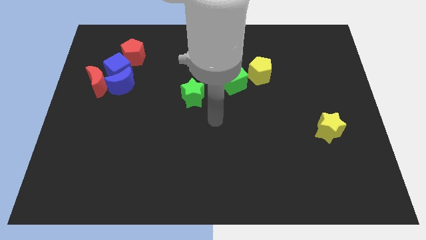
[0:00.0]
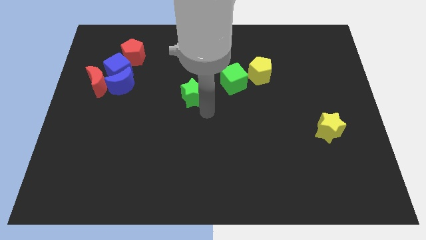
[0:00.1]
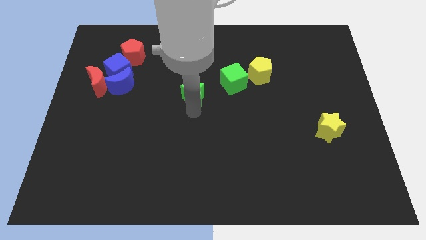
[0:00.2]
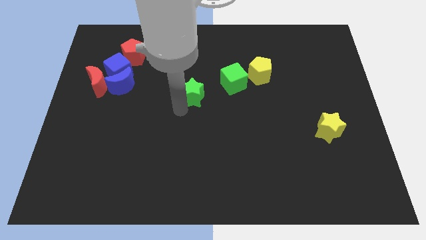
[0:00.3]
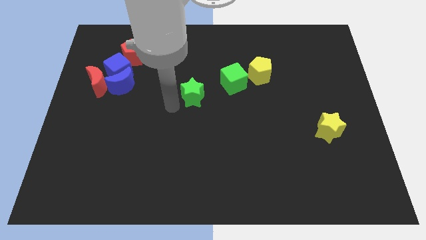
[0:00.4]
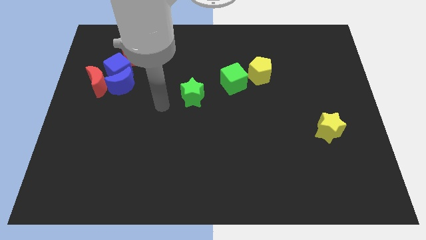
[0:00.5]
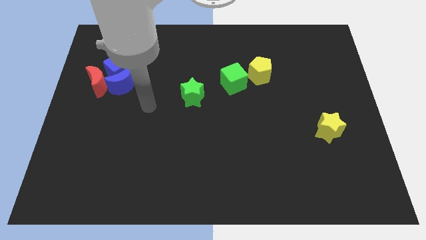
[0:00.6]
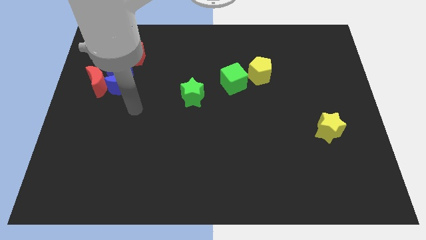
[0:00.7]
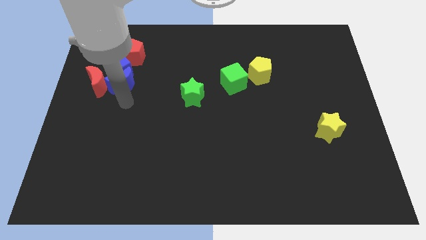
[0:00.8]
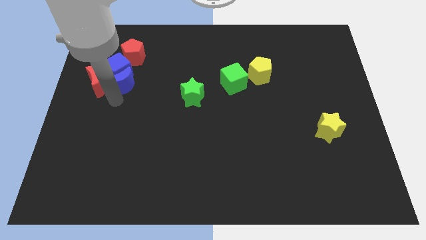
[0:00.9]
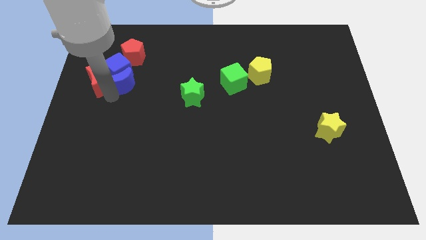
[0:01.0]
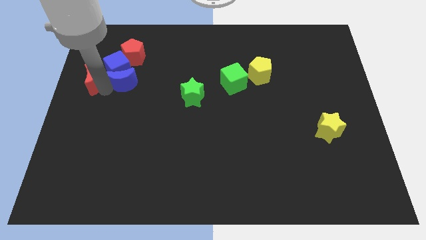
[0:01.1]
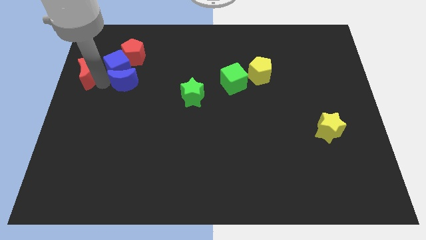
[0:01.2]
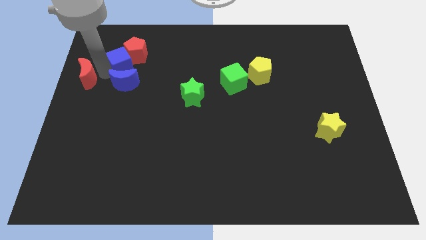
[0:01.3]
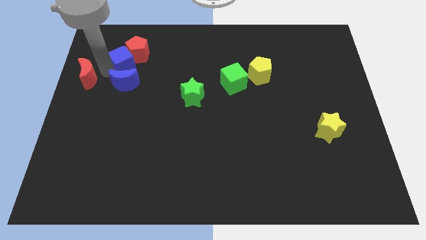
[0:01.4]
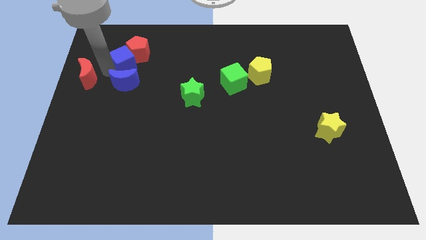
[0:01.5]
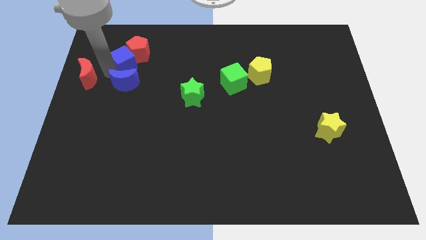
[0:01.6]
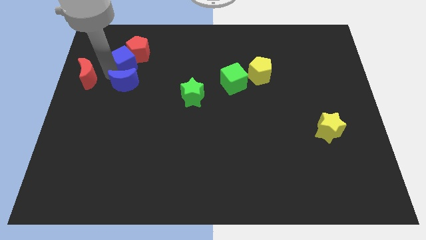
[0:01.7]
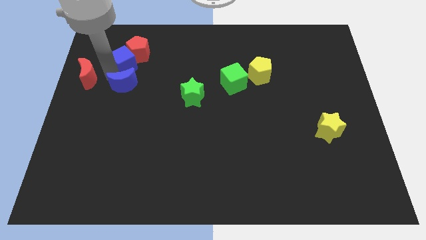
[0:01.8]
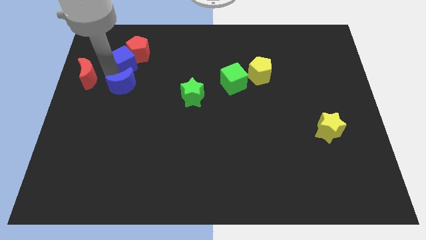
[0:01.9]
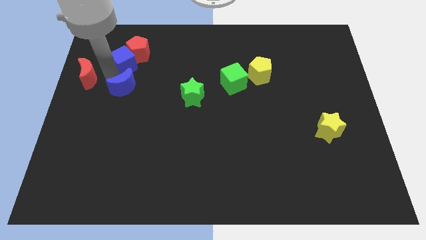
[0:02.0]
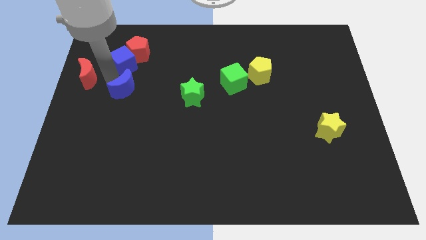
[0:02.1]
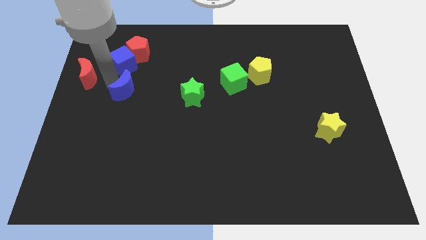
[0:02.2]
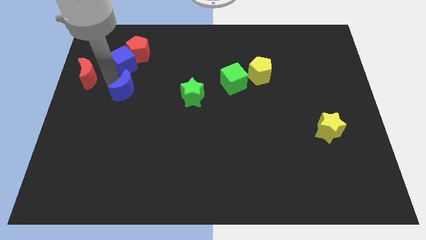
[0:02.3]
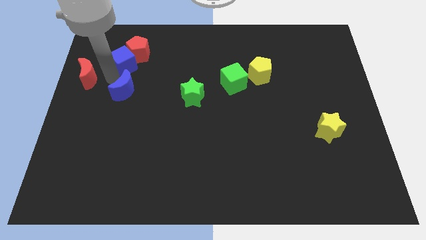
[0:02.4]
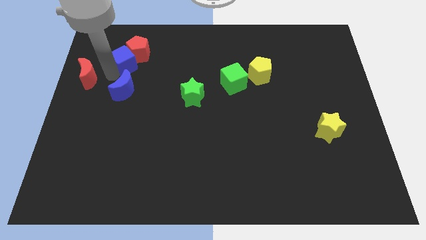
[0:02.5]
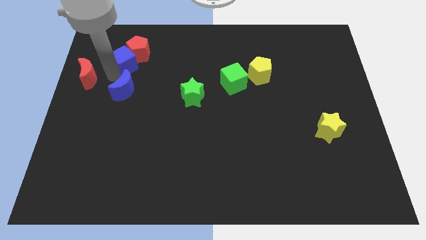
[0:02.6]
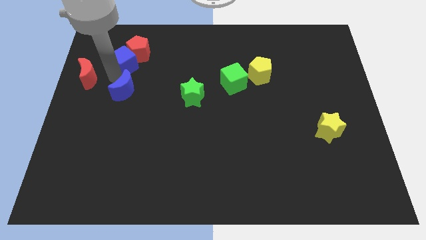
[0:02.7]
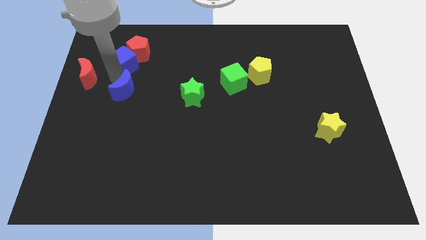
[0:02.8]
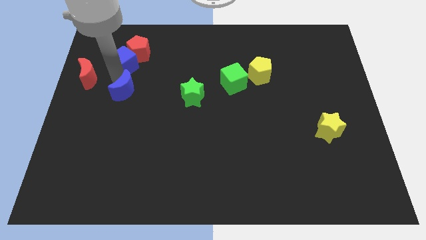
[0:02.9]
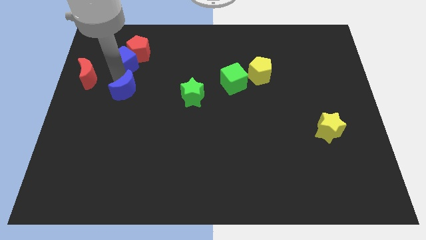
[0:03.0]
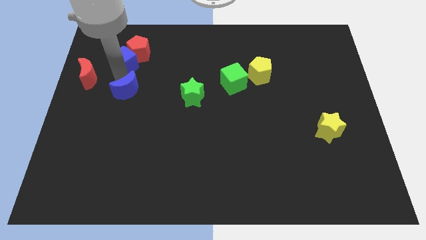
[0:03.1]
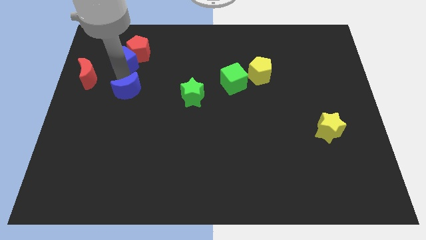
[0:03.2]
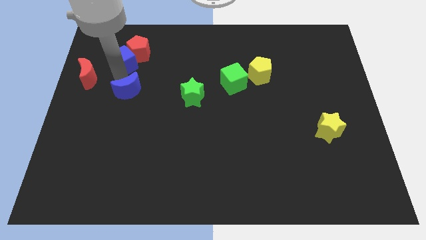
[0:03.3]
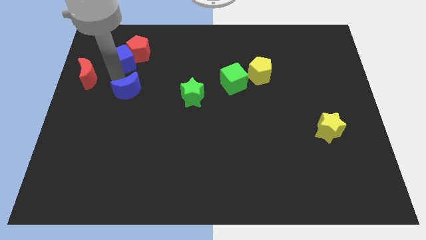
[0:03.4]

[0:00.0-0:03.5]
move the blue moon away from the blue cube and red moon

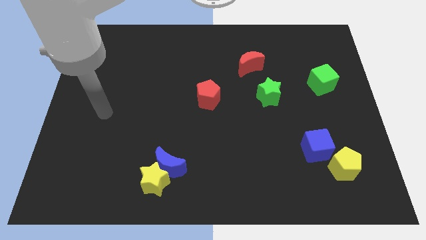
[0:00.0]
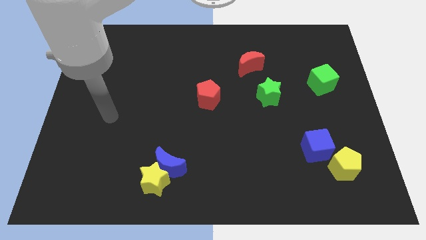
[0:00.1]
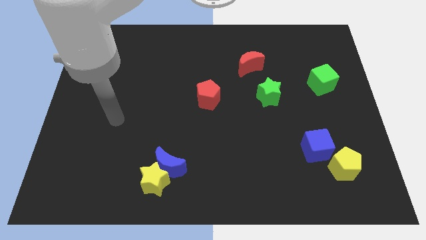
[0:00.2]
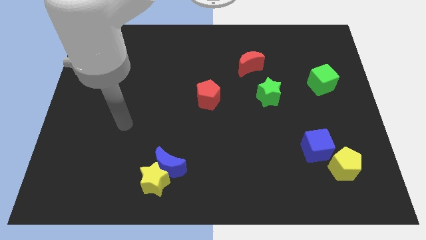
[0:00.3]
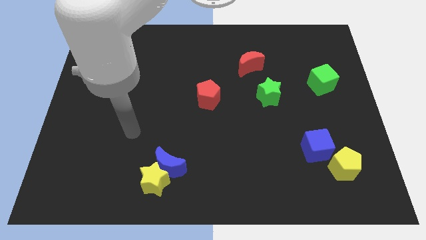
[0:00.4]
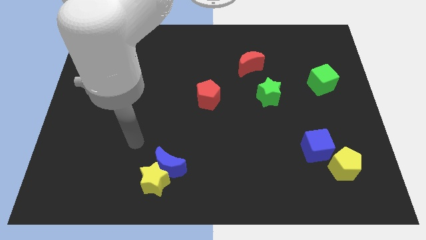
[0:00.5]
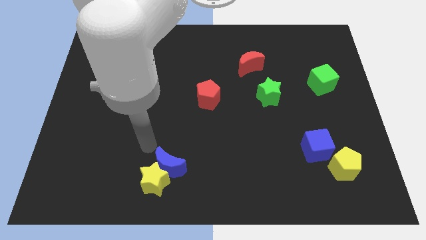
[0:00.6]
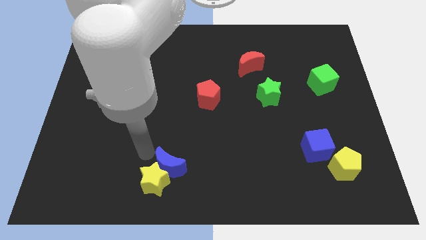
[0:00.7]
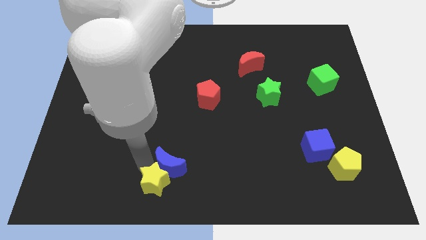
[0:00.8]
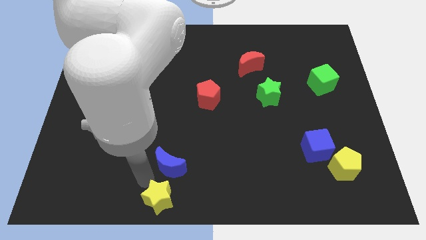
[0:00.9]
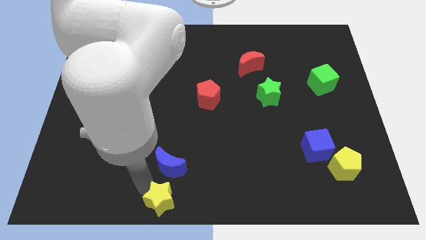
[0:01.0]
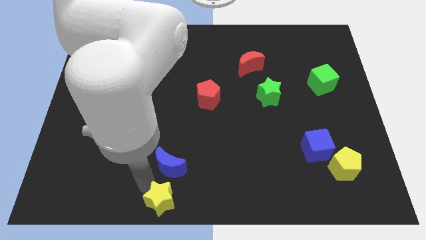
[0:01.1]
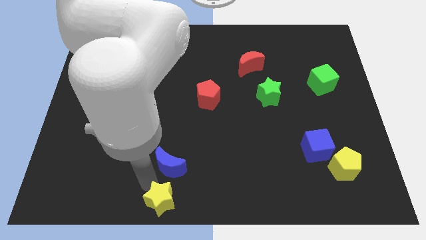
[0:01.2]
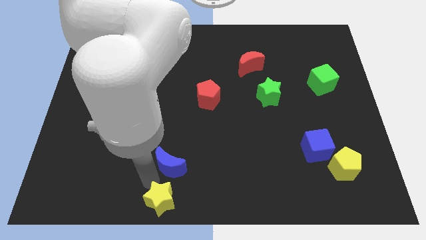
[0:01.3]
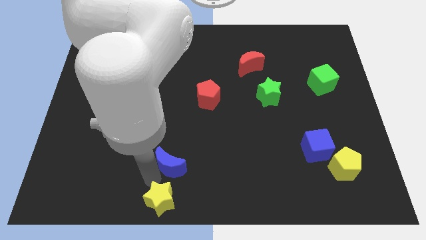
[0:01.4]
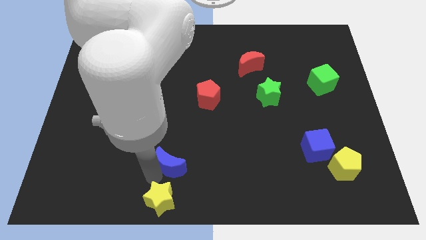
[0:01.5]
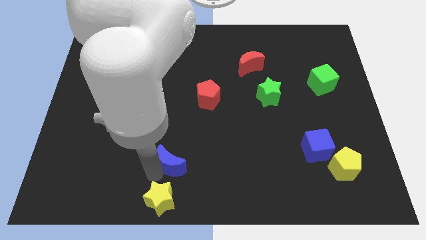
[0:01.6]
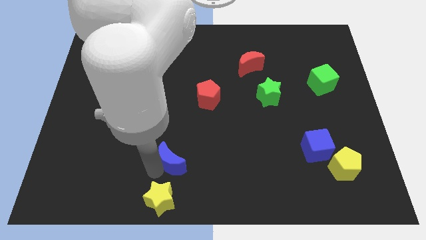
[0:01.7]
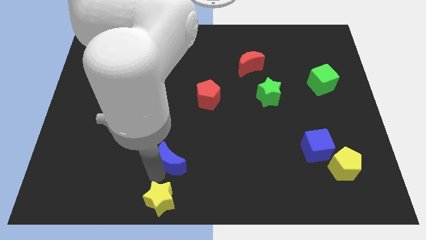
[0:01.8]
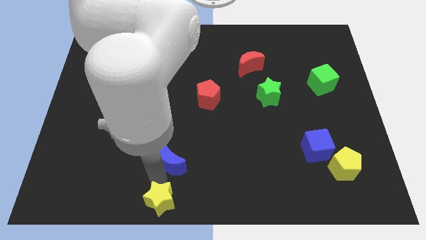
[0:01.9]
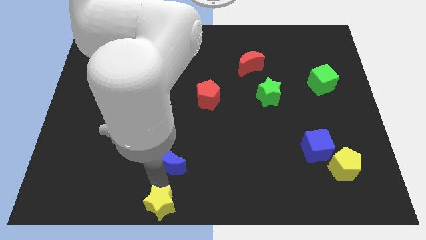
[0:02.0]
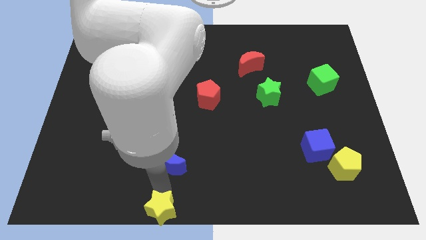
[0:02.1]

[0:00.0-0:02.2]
separate the blue moon from the yellow star

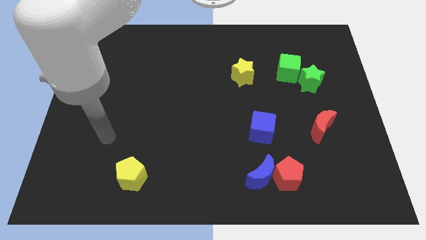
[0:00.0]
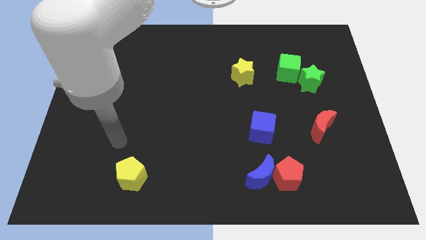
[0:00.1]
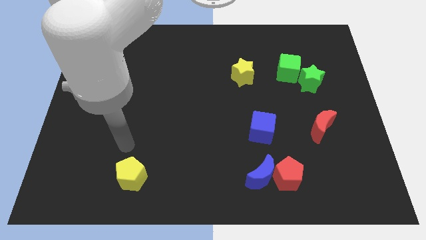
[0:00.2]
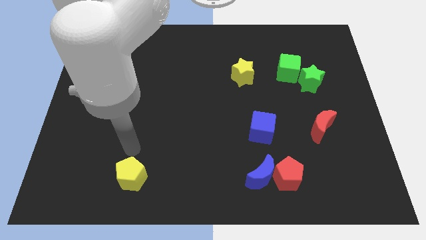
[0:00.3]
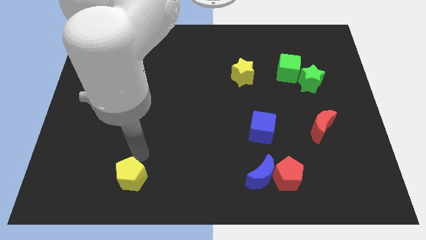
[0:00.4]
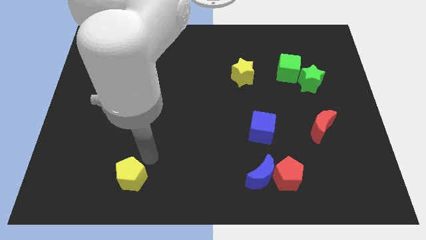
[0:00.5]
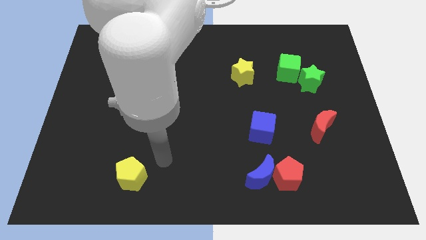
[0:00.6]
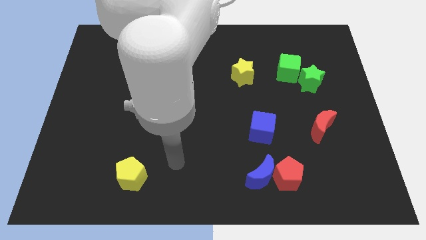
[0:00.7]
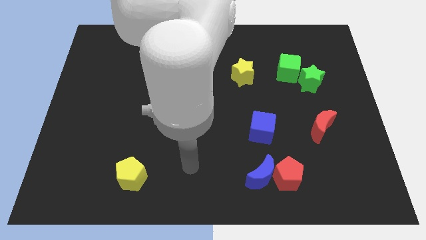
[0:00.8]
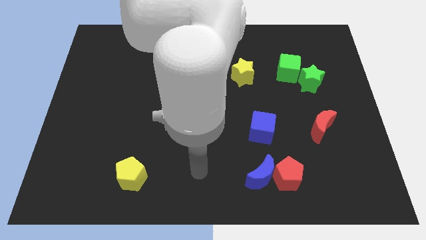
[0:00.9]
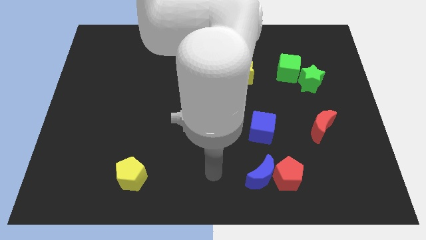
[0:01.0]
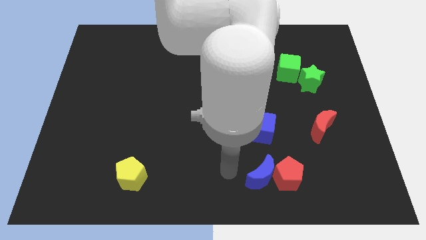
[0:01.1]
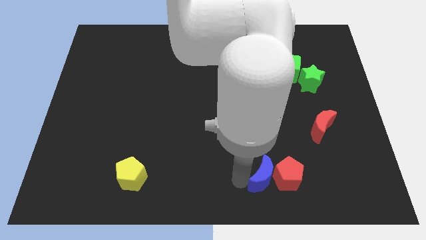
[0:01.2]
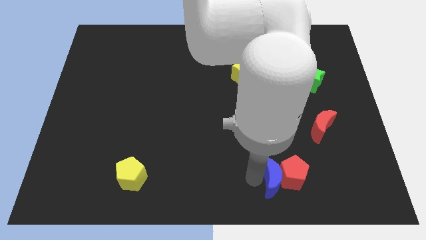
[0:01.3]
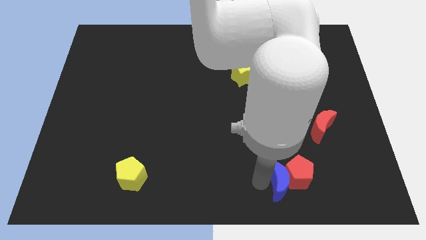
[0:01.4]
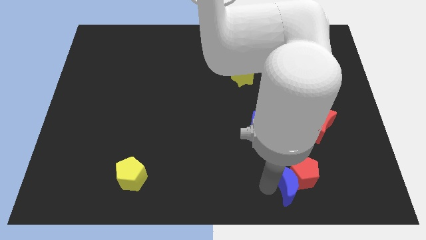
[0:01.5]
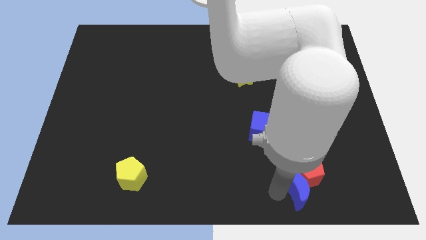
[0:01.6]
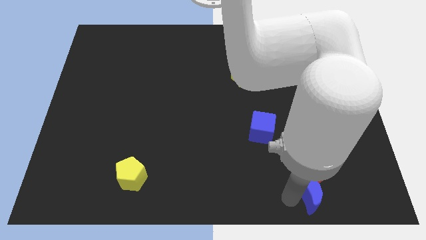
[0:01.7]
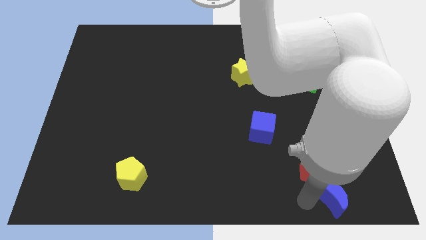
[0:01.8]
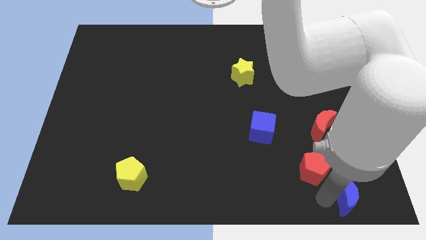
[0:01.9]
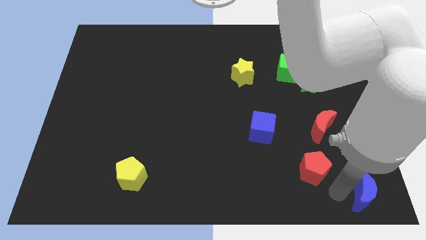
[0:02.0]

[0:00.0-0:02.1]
move the red pentagon away from the blue moon

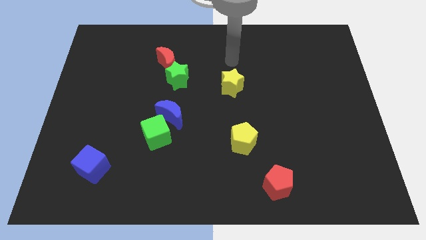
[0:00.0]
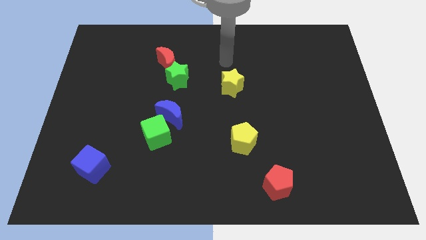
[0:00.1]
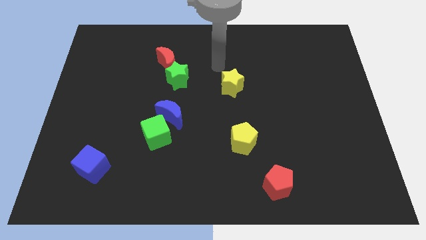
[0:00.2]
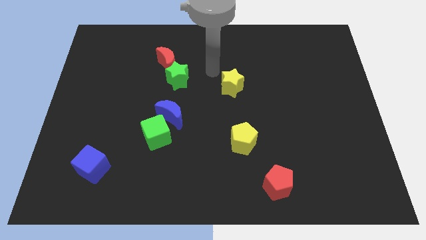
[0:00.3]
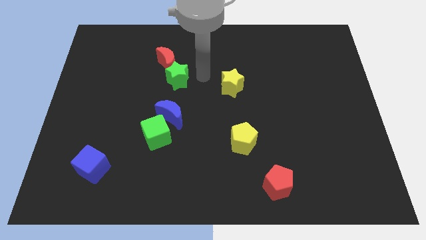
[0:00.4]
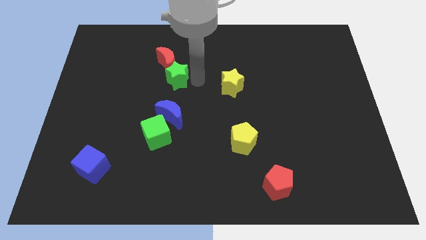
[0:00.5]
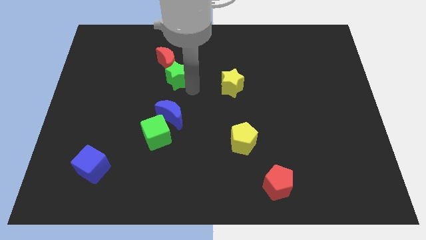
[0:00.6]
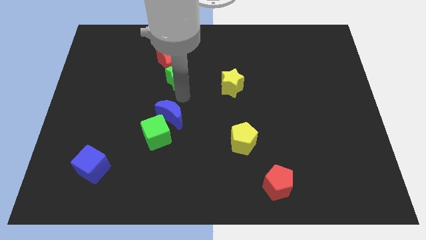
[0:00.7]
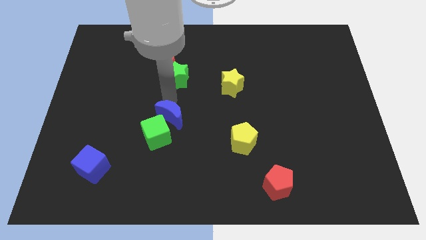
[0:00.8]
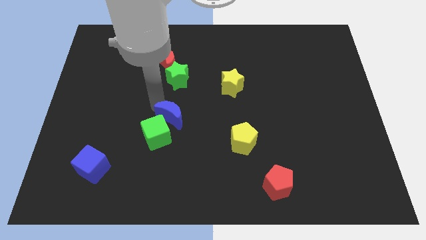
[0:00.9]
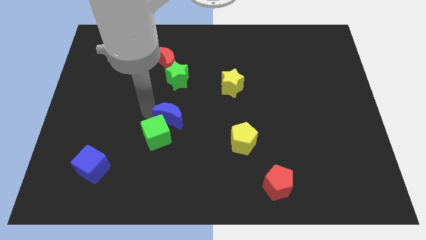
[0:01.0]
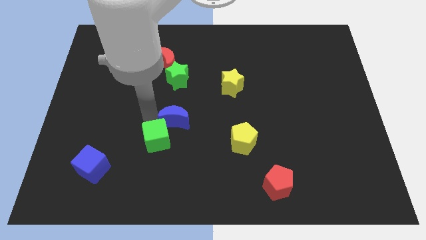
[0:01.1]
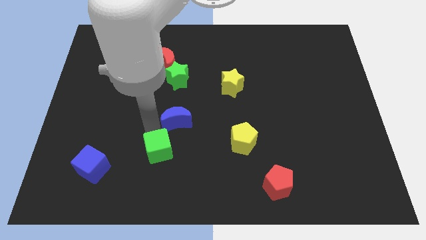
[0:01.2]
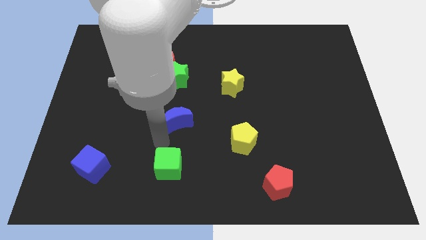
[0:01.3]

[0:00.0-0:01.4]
separate the blue moon from the green cube
